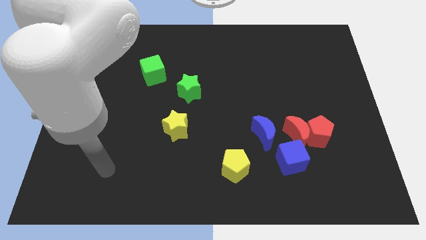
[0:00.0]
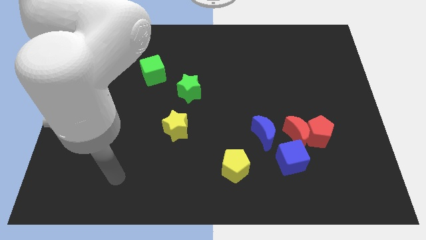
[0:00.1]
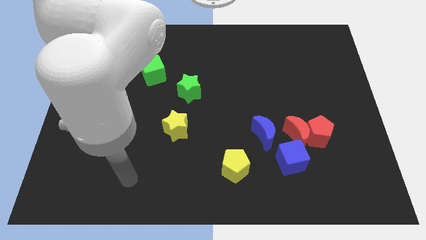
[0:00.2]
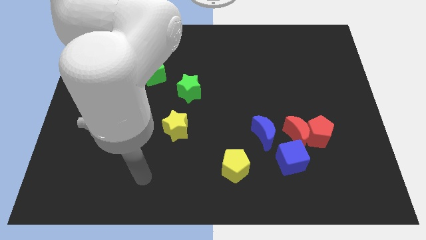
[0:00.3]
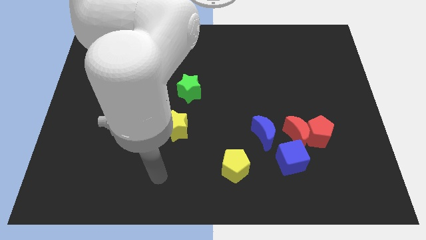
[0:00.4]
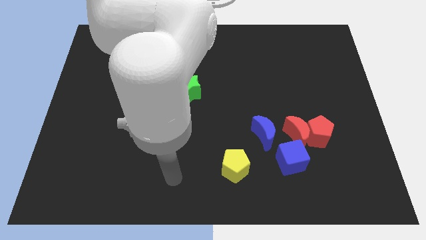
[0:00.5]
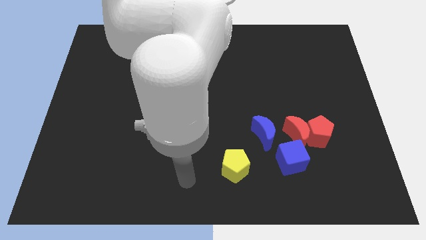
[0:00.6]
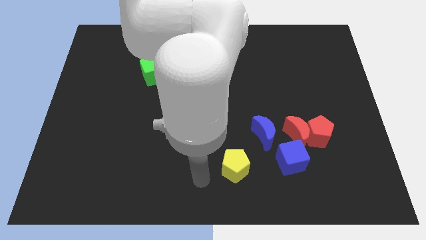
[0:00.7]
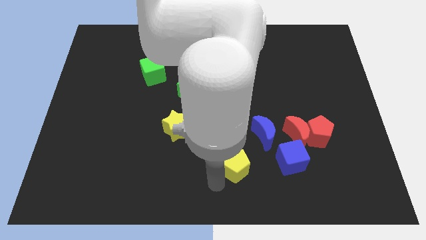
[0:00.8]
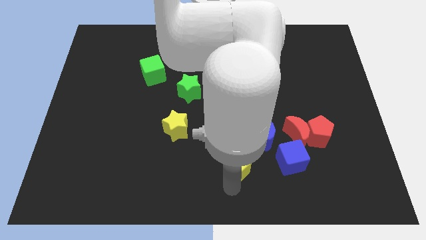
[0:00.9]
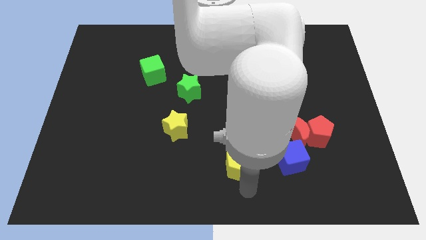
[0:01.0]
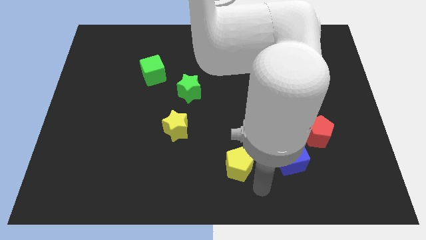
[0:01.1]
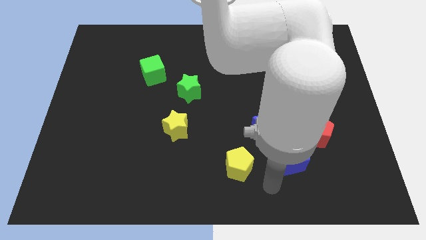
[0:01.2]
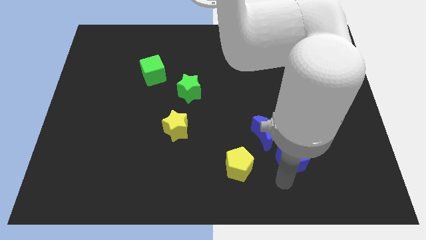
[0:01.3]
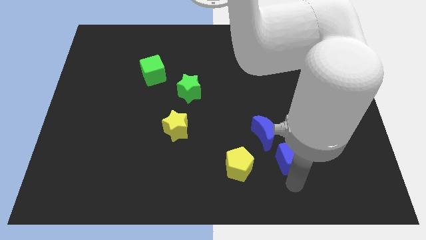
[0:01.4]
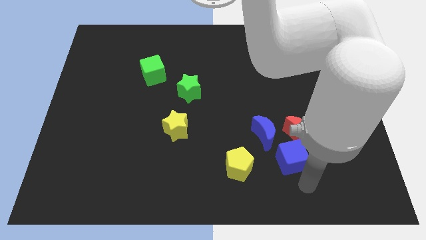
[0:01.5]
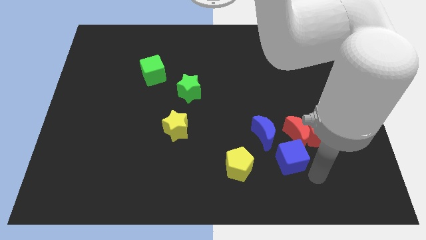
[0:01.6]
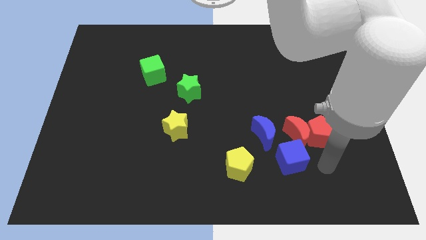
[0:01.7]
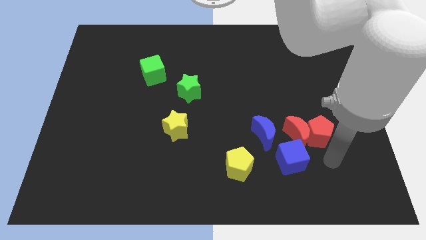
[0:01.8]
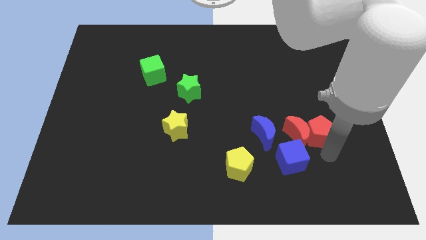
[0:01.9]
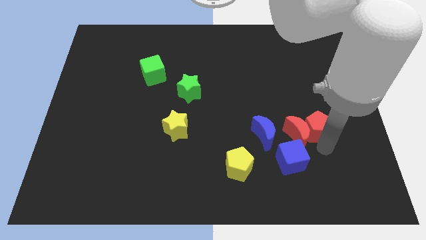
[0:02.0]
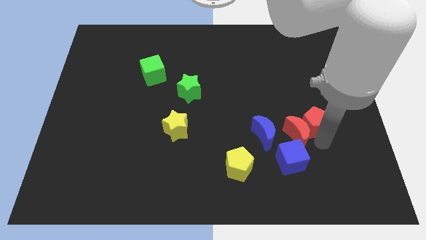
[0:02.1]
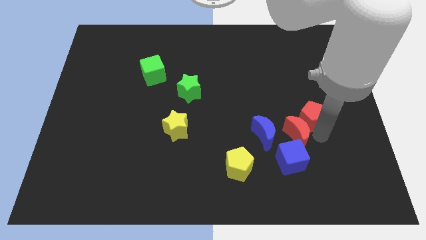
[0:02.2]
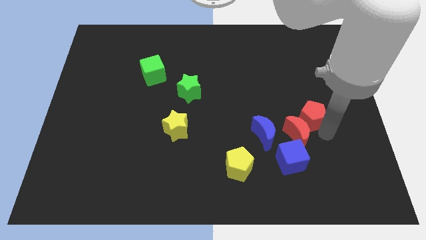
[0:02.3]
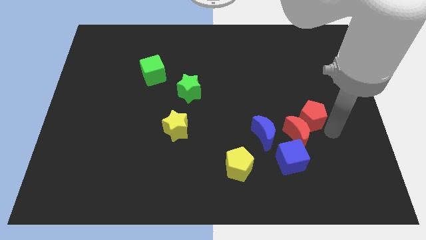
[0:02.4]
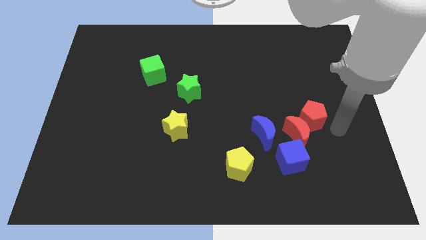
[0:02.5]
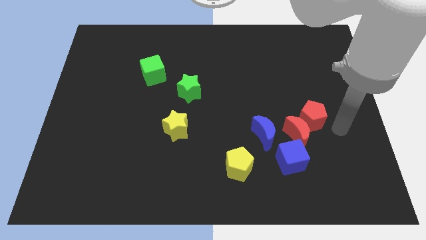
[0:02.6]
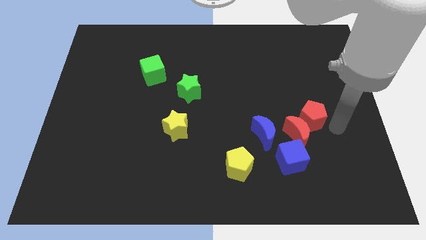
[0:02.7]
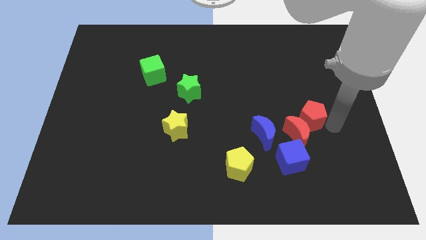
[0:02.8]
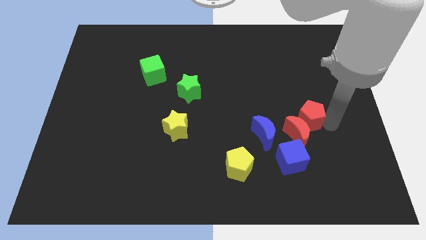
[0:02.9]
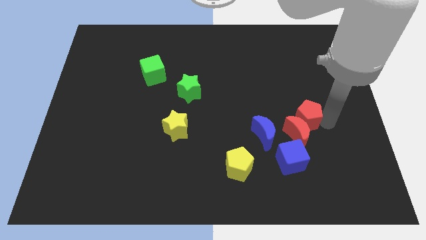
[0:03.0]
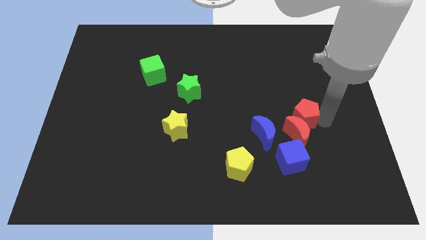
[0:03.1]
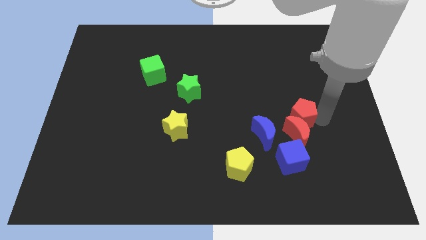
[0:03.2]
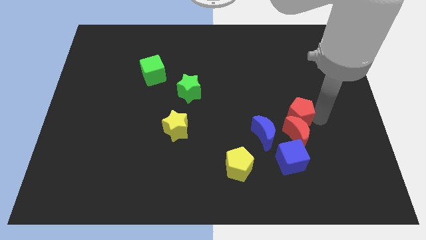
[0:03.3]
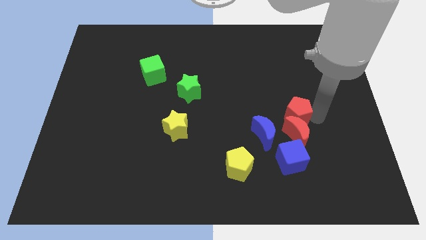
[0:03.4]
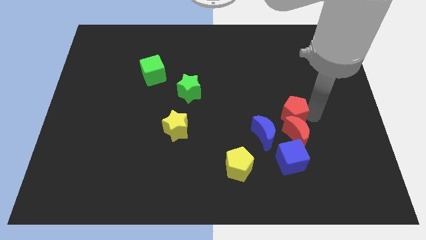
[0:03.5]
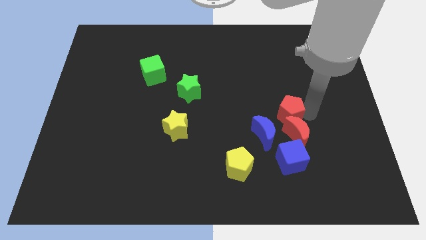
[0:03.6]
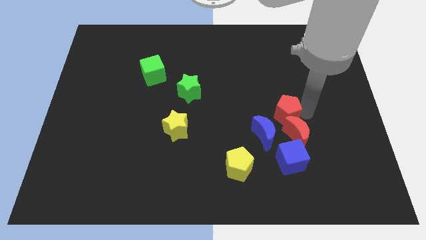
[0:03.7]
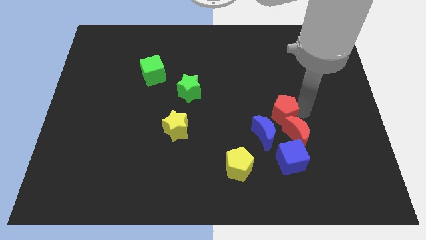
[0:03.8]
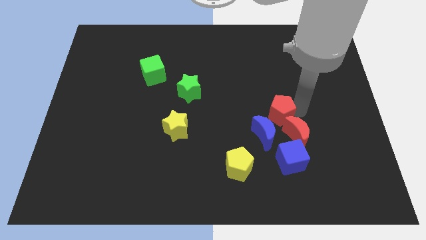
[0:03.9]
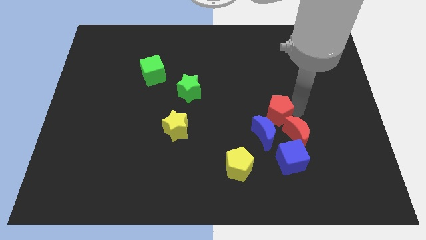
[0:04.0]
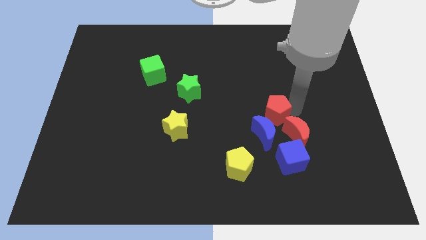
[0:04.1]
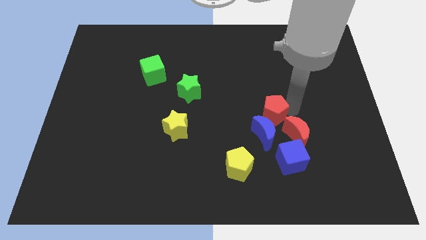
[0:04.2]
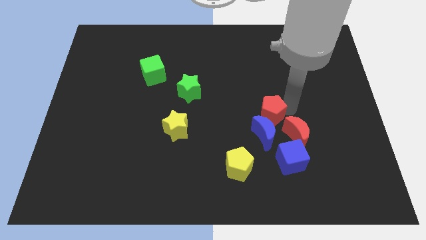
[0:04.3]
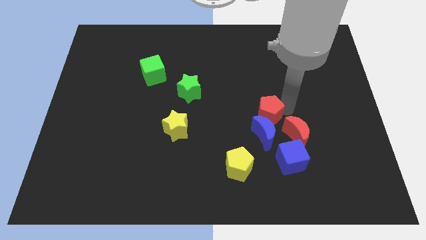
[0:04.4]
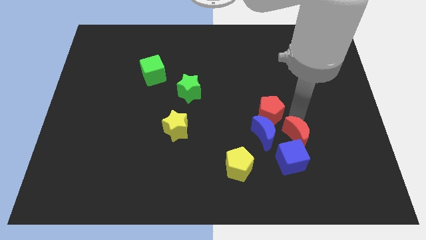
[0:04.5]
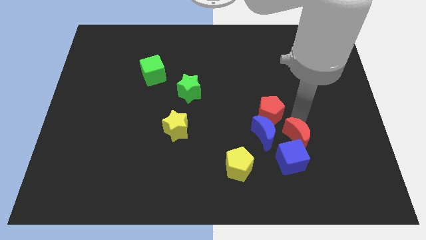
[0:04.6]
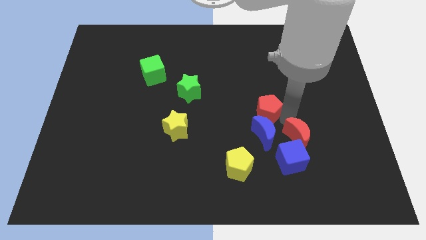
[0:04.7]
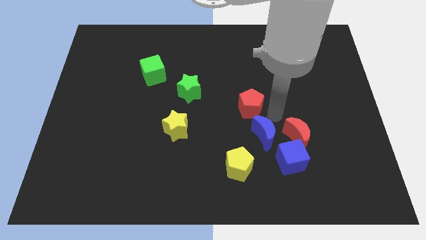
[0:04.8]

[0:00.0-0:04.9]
put the red pentagon to the center

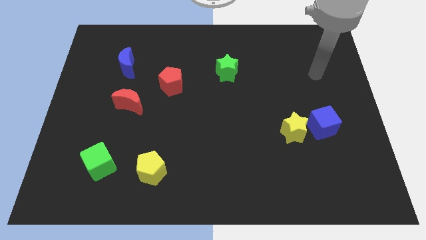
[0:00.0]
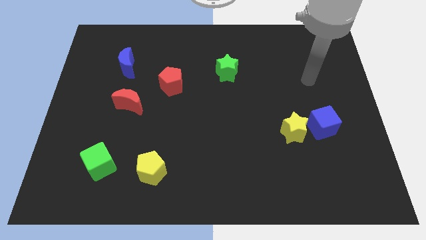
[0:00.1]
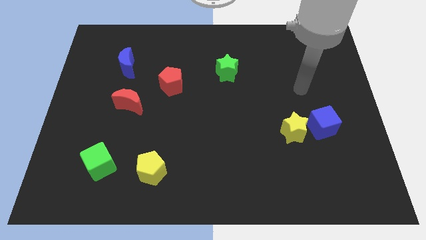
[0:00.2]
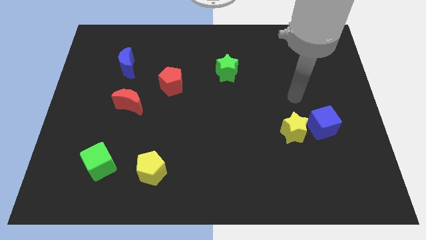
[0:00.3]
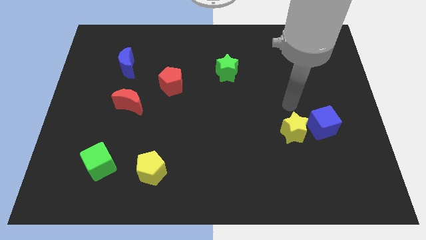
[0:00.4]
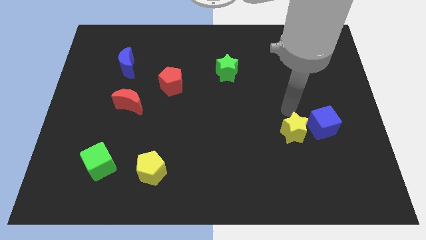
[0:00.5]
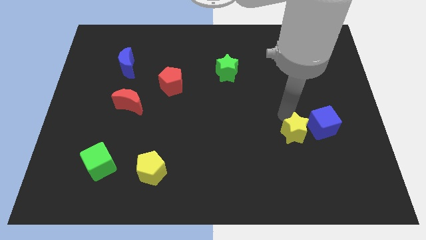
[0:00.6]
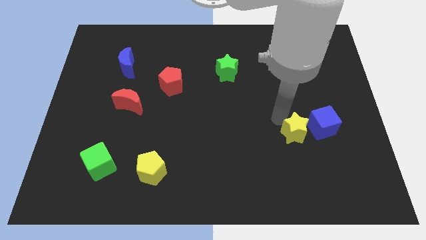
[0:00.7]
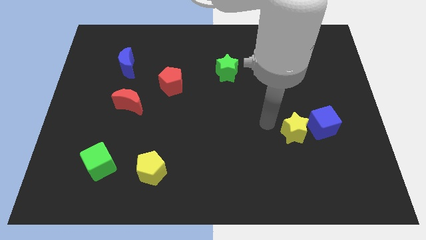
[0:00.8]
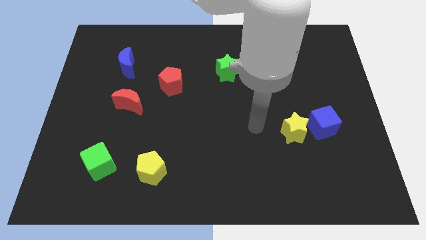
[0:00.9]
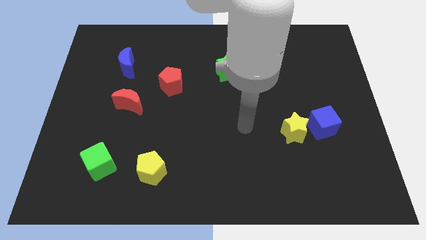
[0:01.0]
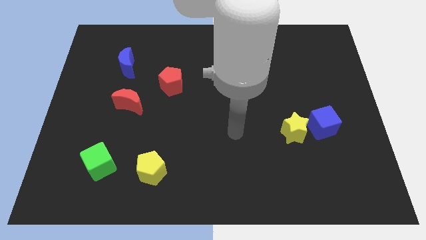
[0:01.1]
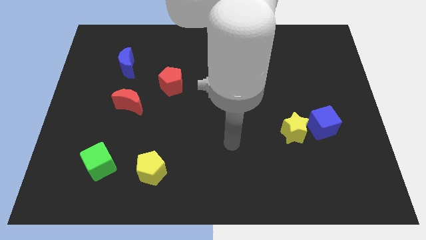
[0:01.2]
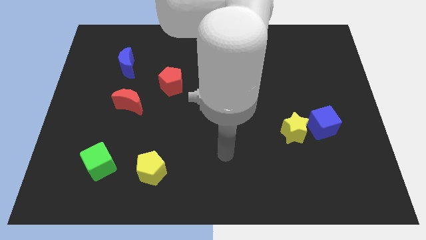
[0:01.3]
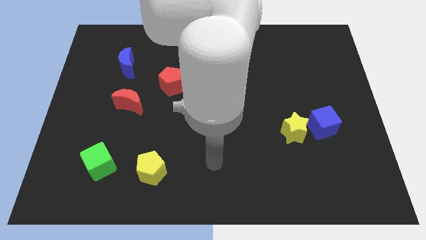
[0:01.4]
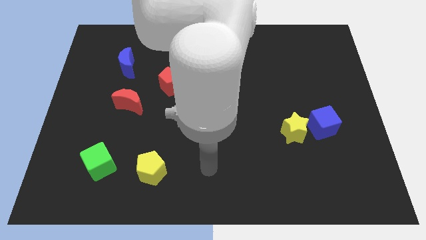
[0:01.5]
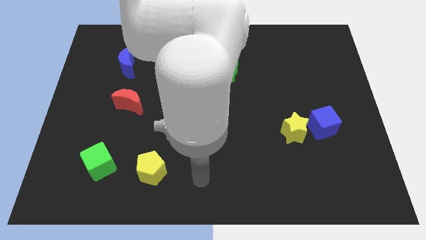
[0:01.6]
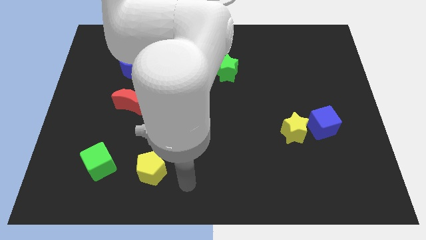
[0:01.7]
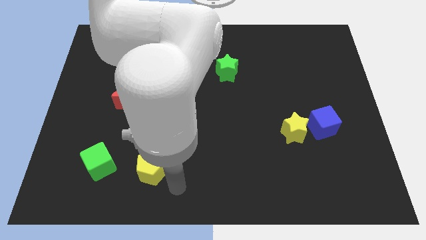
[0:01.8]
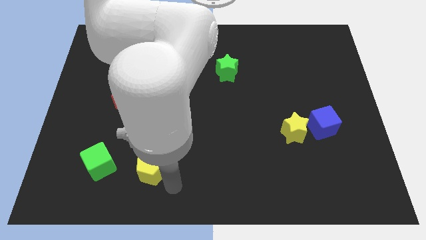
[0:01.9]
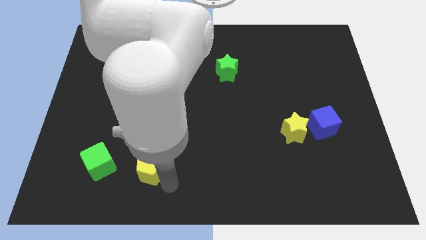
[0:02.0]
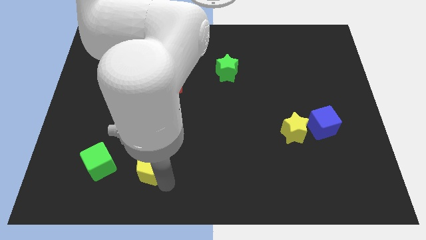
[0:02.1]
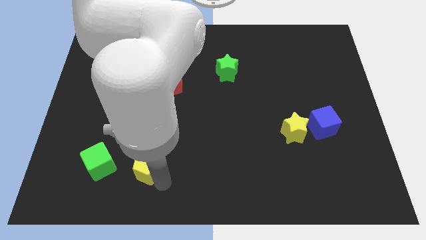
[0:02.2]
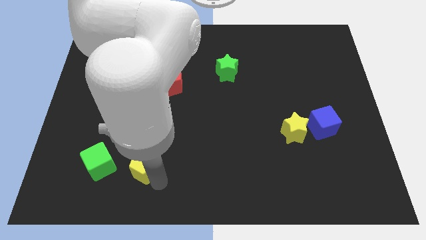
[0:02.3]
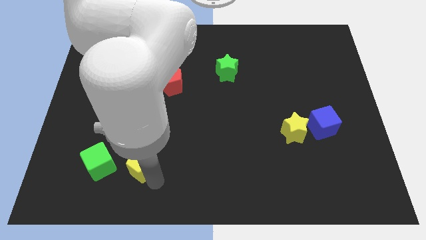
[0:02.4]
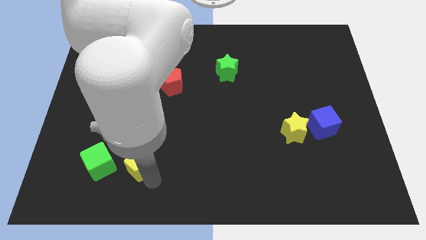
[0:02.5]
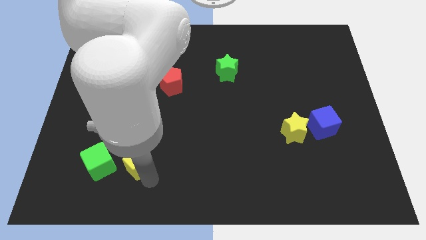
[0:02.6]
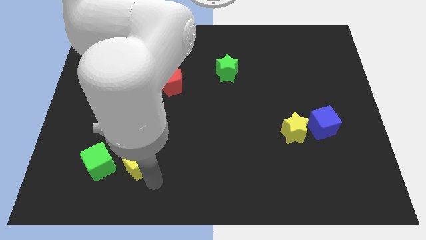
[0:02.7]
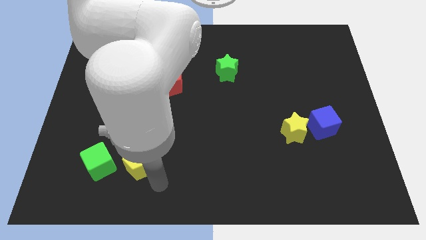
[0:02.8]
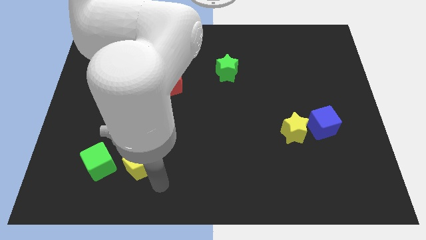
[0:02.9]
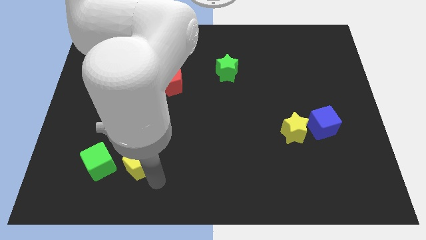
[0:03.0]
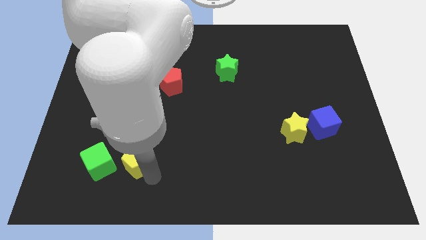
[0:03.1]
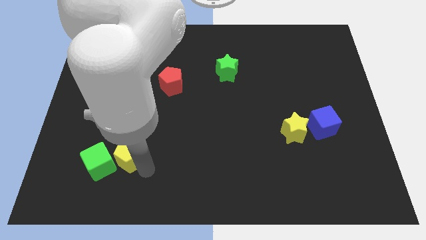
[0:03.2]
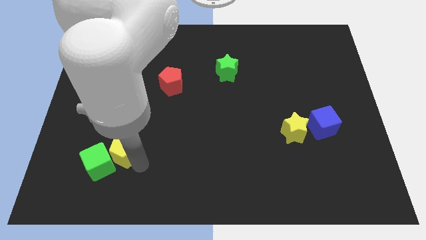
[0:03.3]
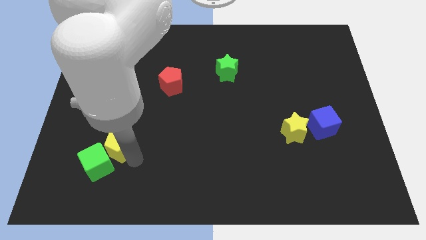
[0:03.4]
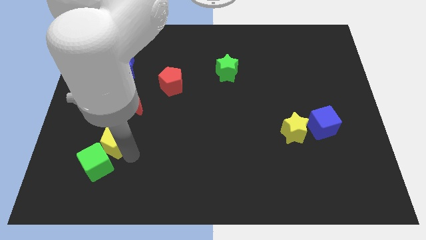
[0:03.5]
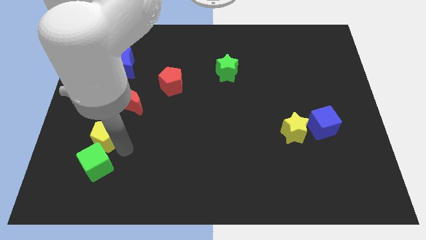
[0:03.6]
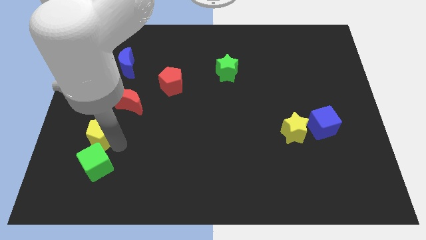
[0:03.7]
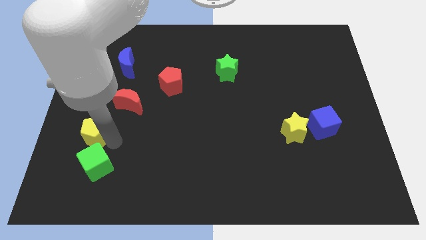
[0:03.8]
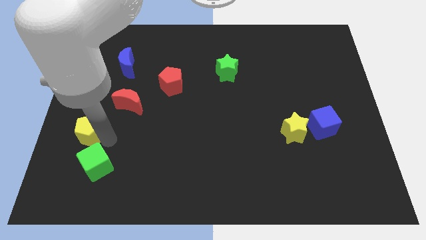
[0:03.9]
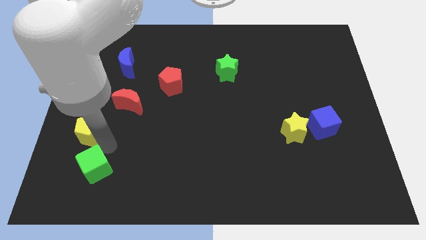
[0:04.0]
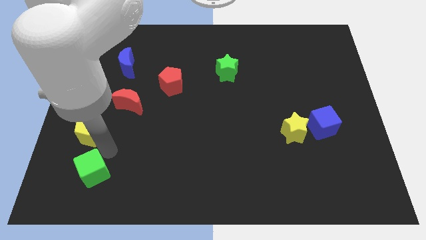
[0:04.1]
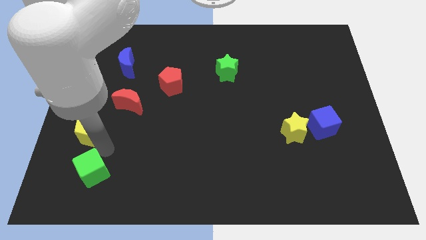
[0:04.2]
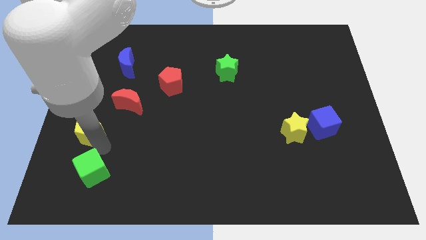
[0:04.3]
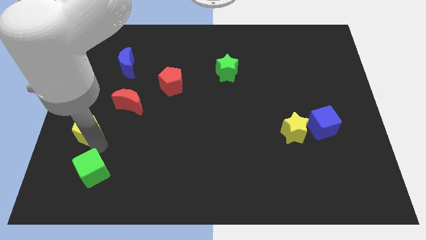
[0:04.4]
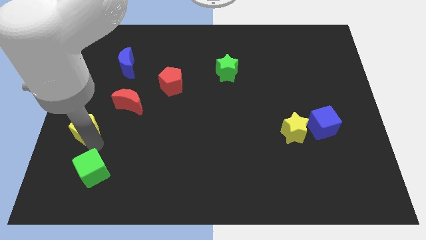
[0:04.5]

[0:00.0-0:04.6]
slide the yellow pentagon to the left side of the board
